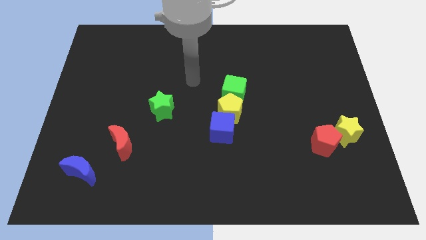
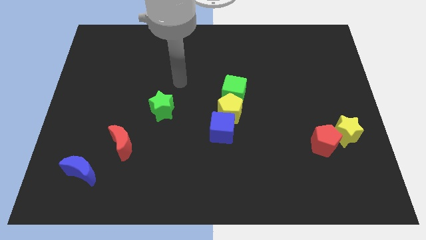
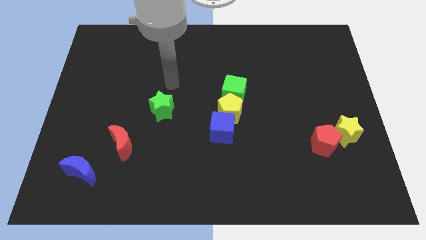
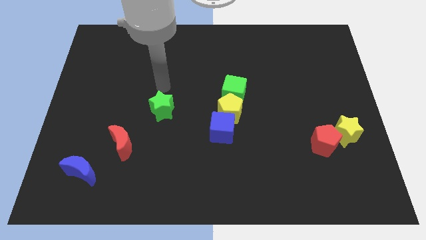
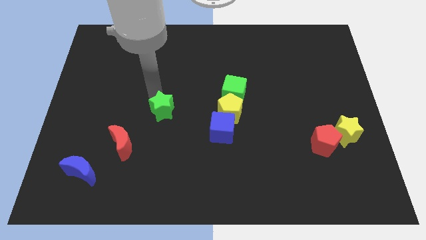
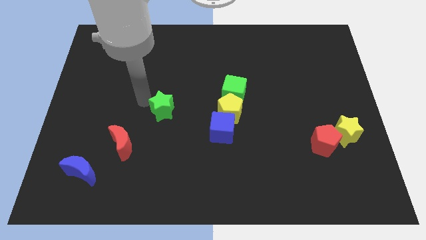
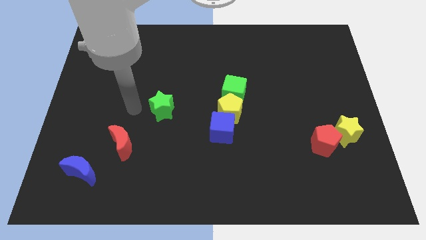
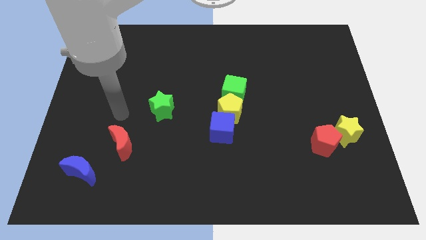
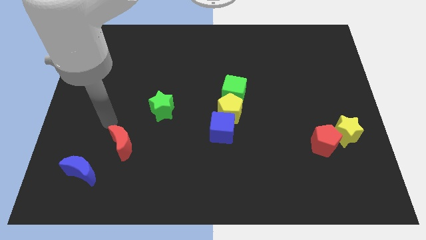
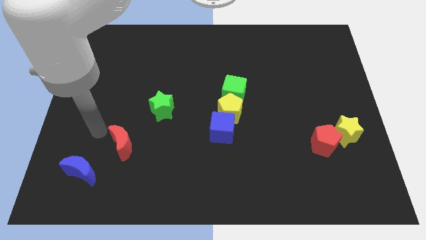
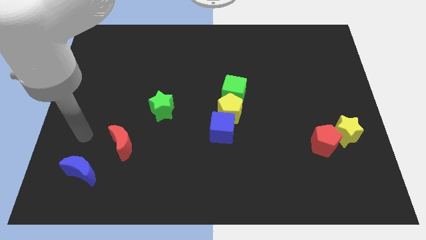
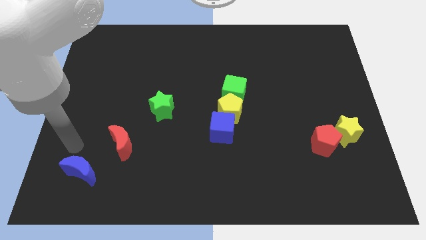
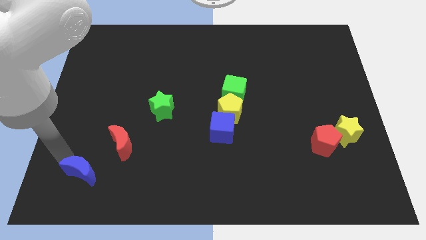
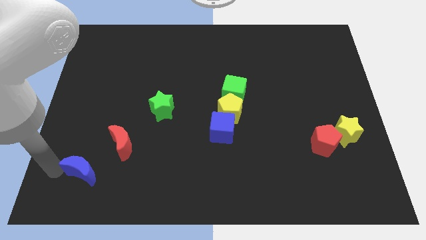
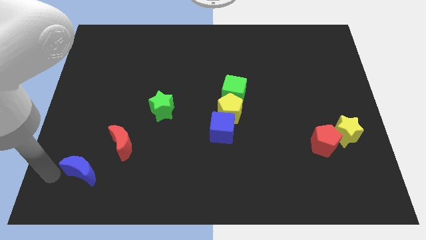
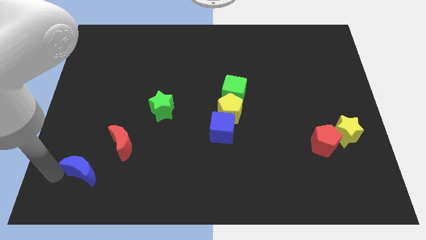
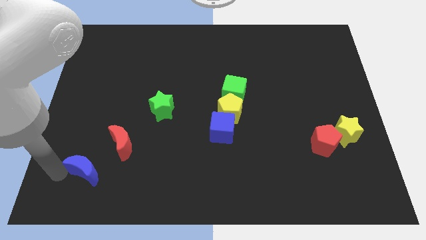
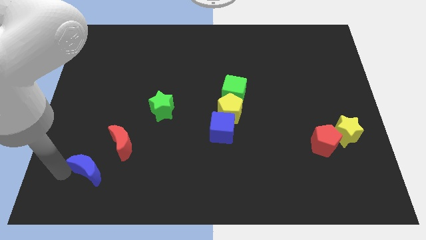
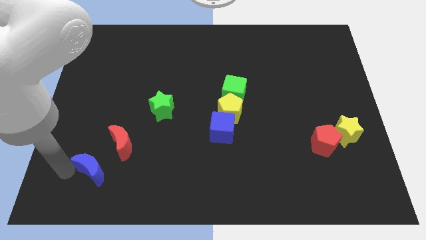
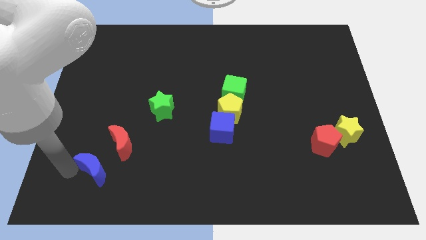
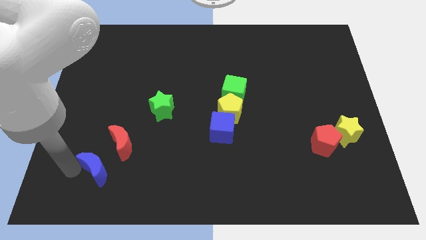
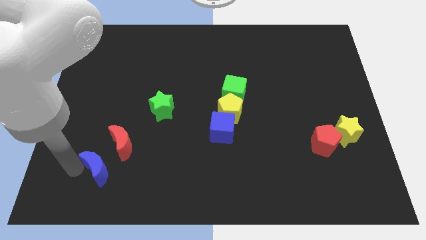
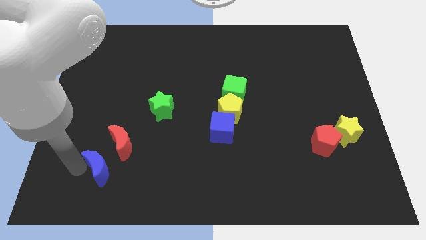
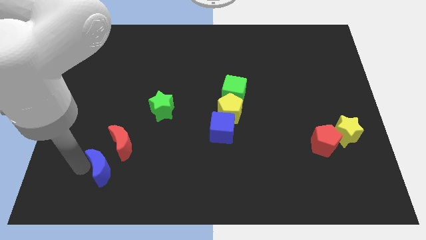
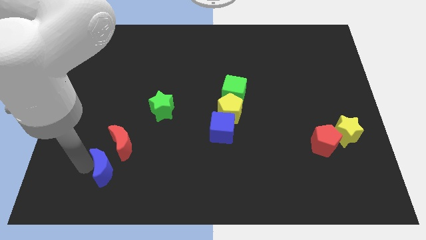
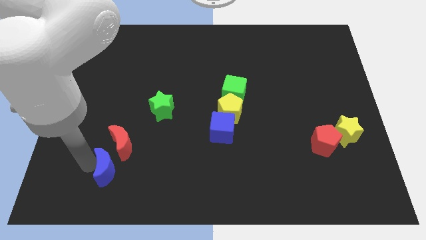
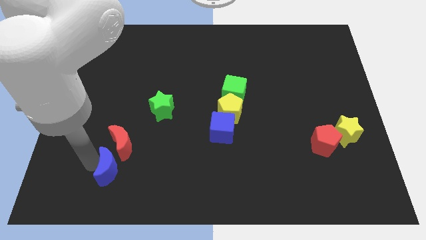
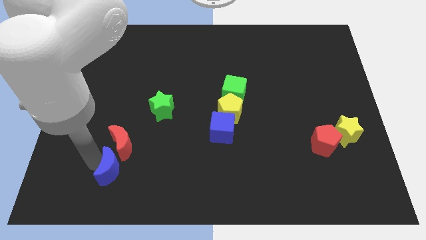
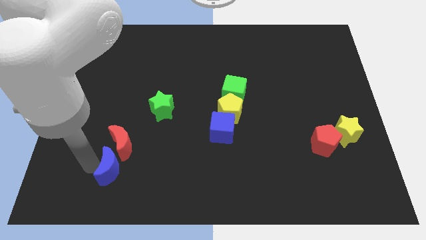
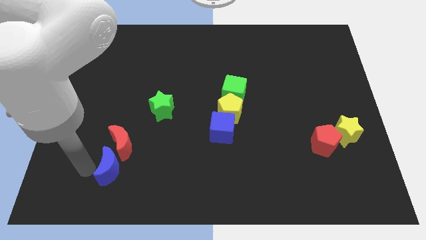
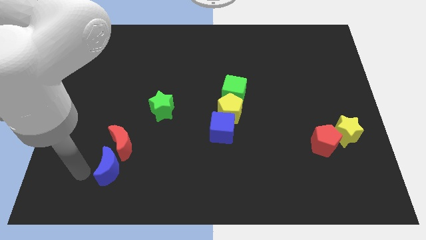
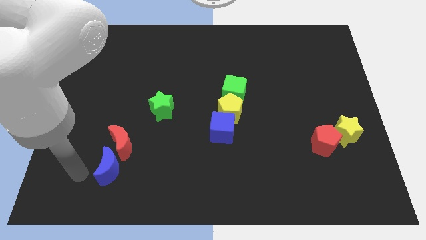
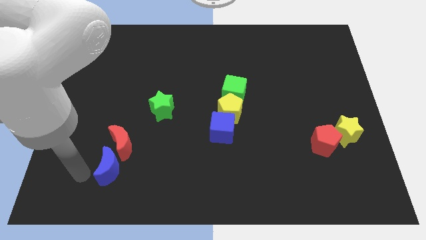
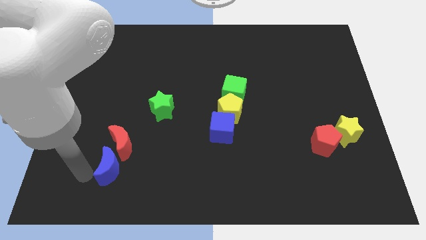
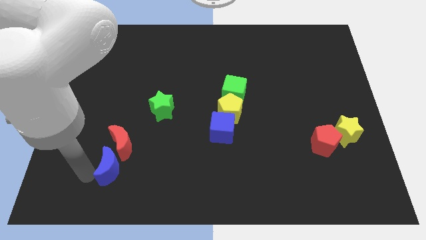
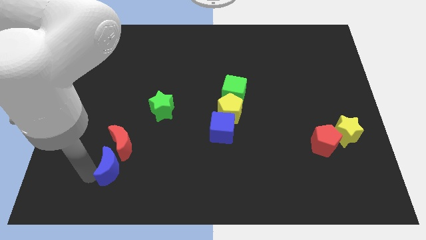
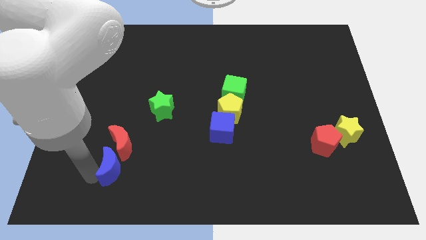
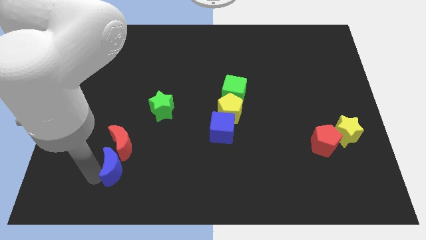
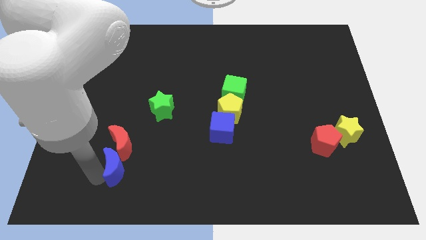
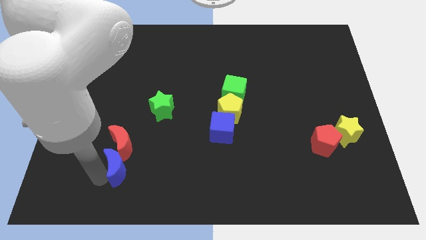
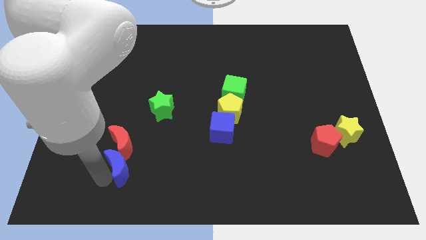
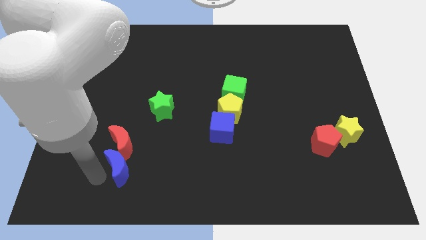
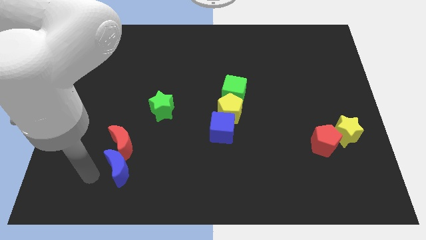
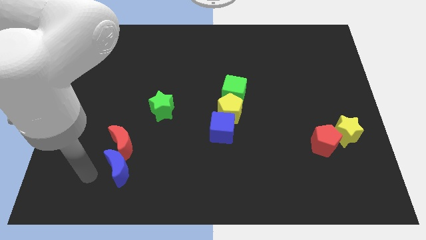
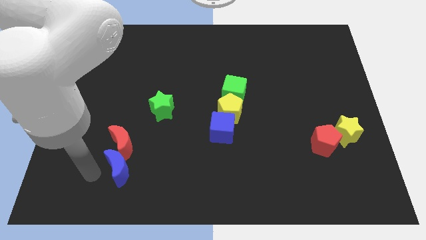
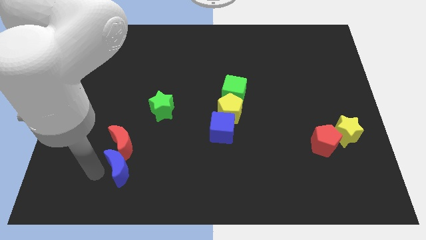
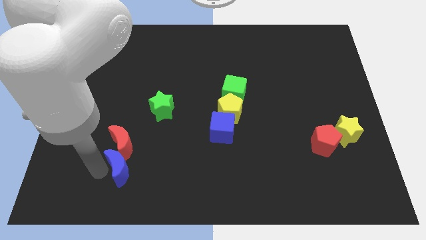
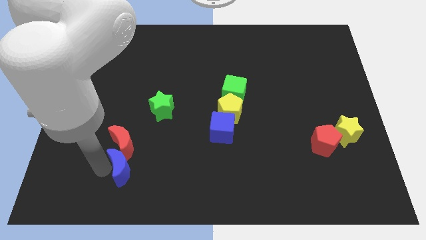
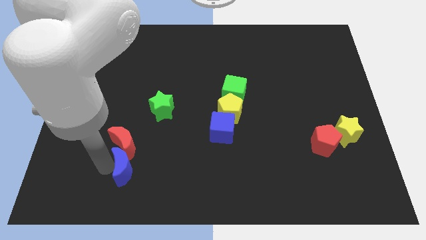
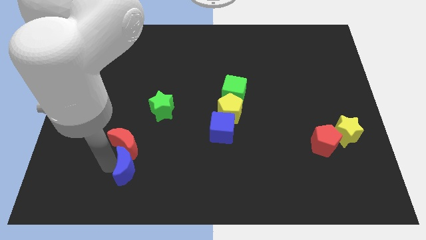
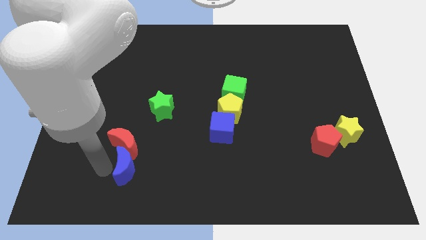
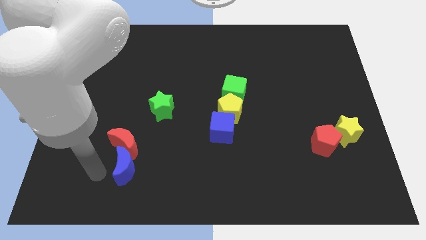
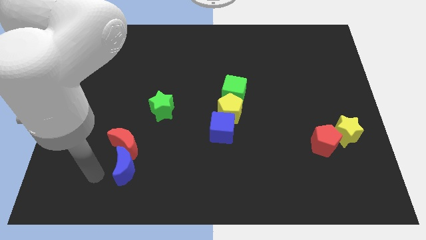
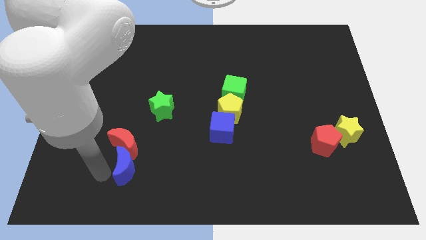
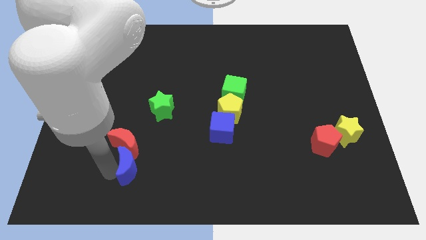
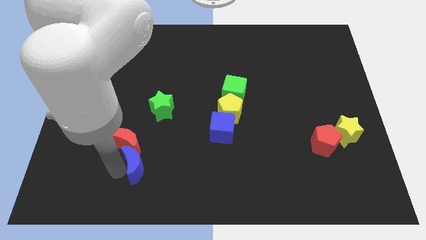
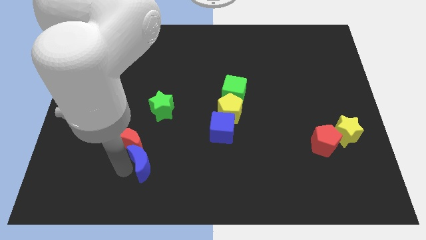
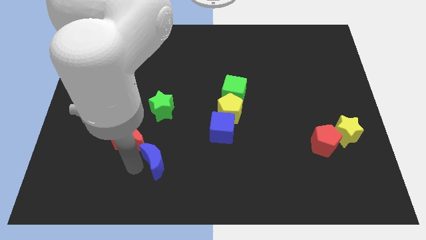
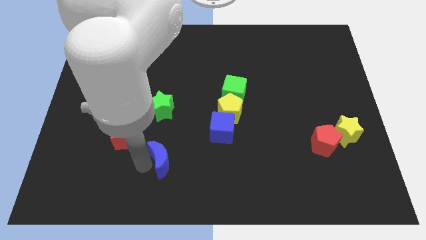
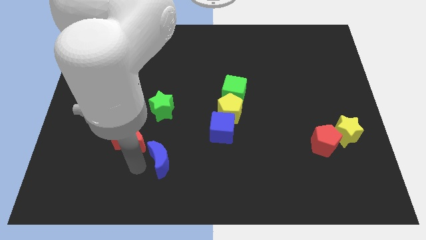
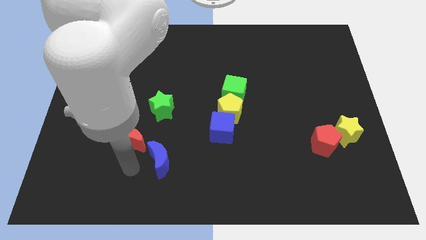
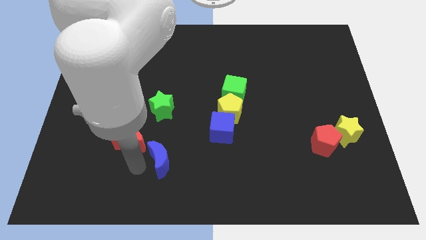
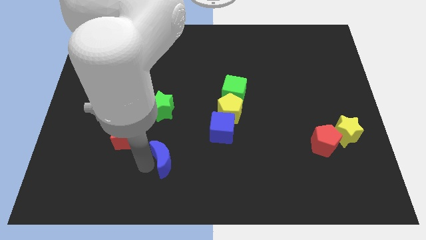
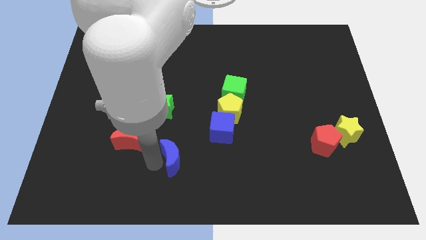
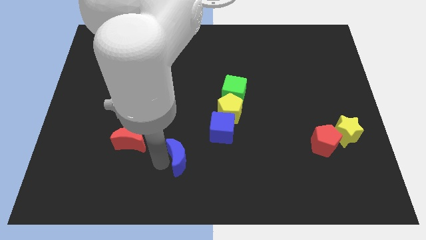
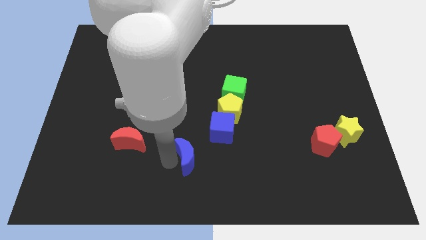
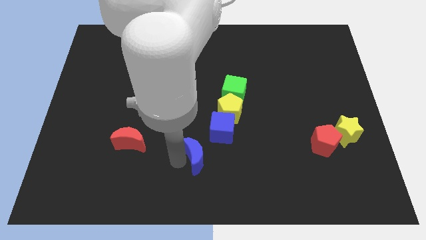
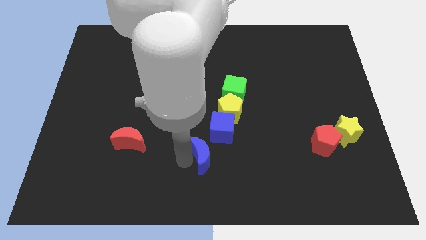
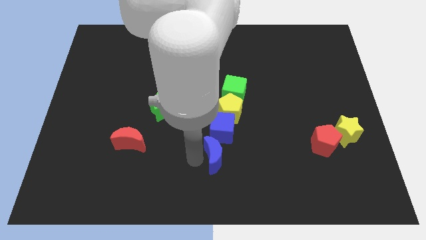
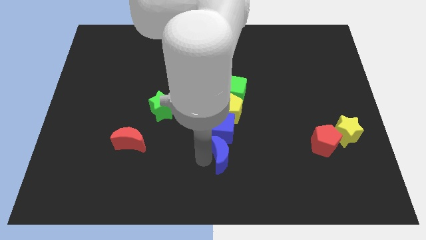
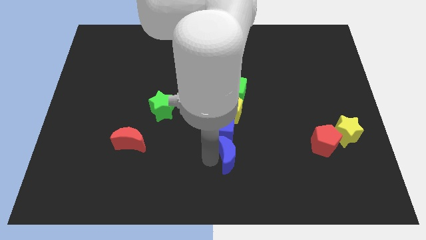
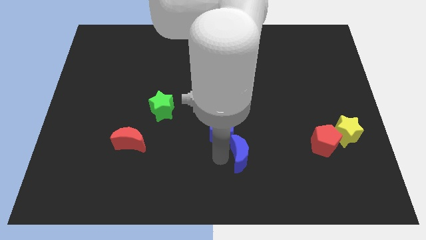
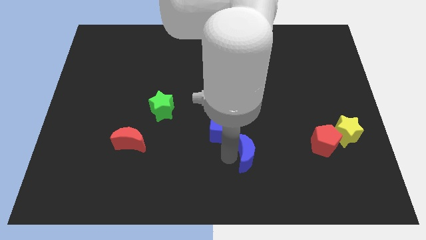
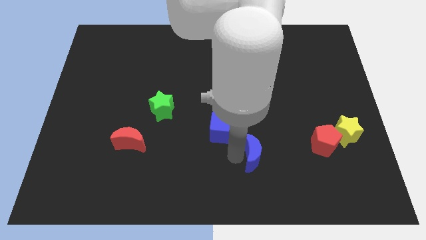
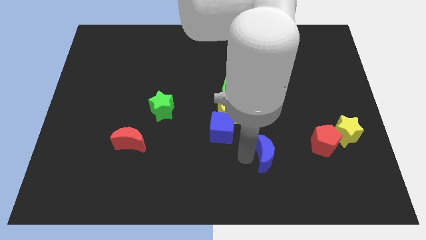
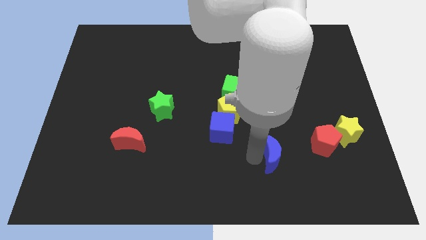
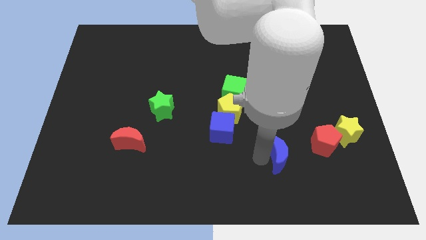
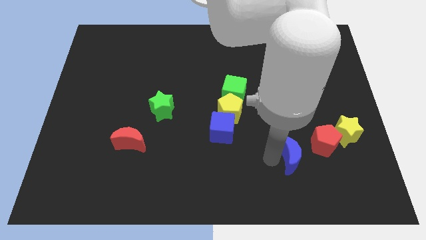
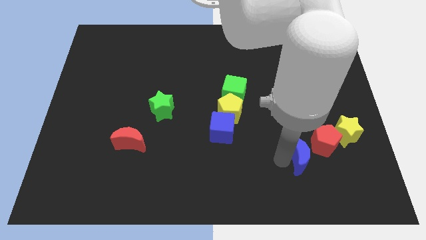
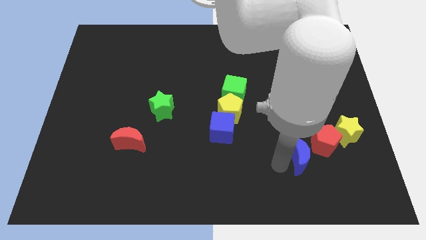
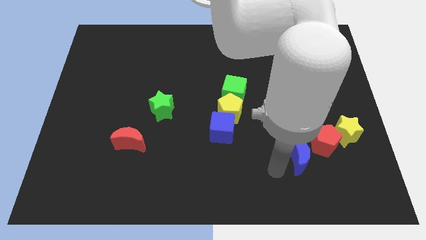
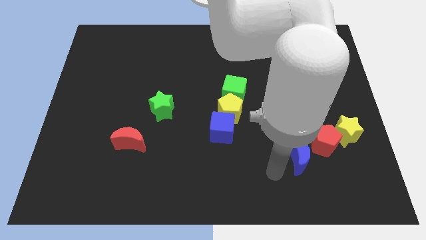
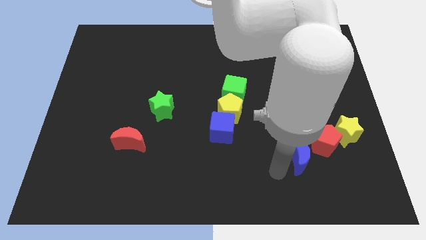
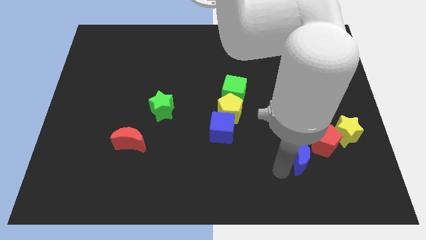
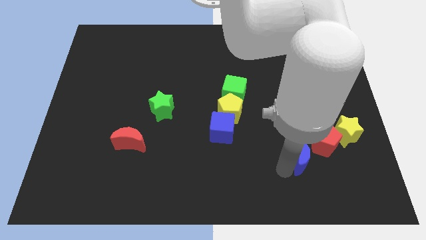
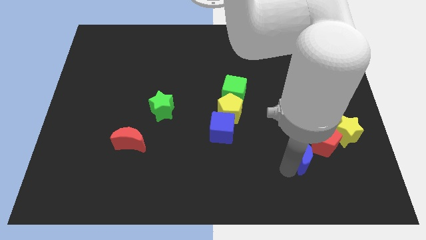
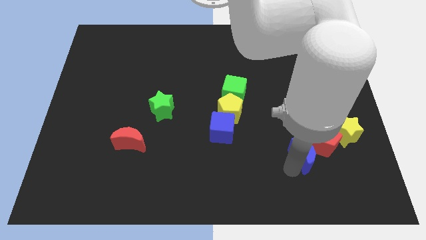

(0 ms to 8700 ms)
put the blue moon close to the red pentagon
